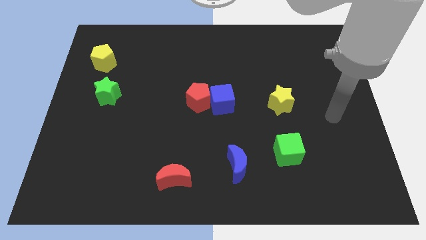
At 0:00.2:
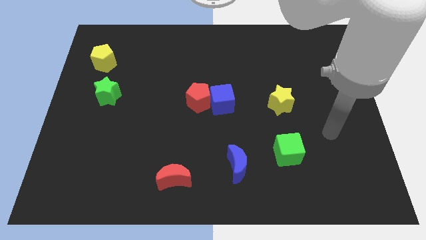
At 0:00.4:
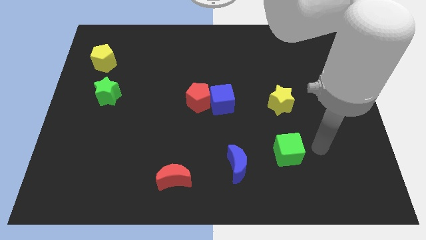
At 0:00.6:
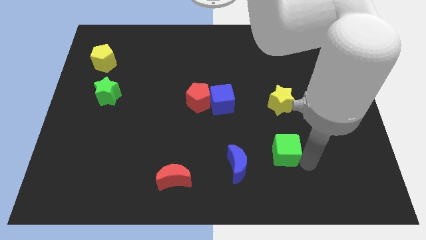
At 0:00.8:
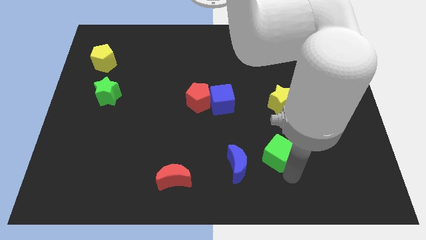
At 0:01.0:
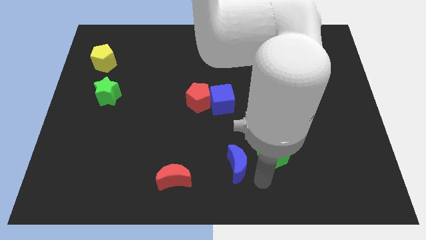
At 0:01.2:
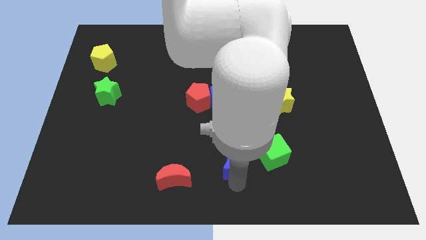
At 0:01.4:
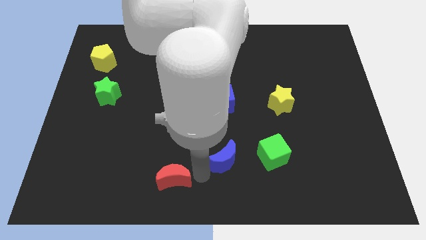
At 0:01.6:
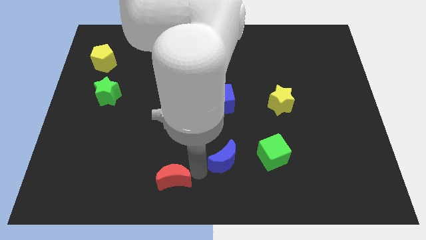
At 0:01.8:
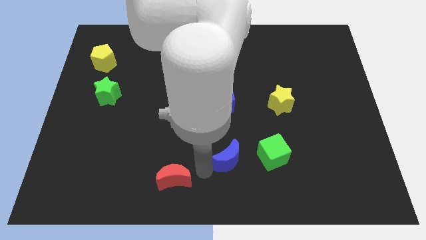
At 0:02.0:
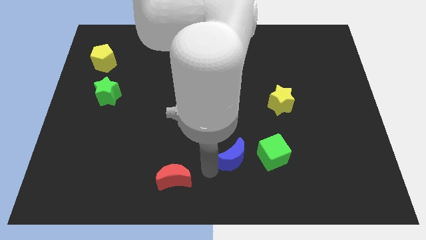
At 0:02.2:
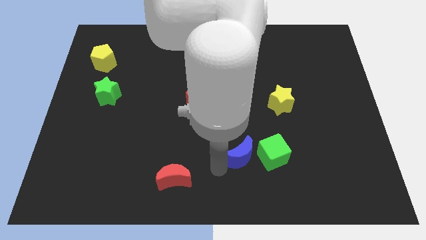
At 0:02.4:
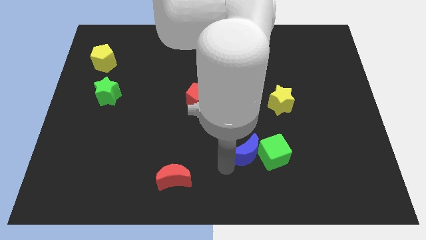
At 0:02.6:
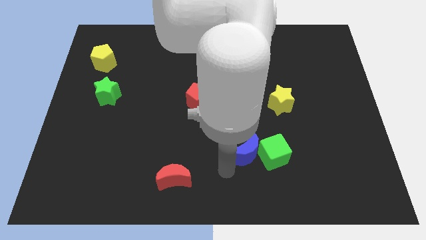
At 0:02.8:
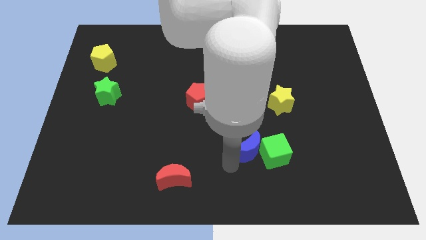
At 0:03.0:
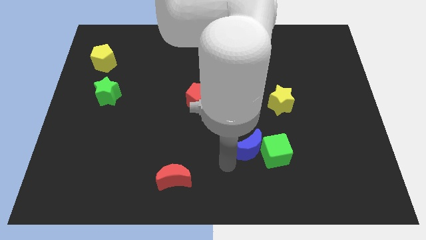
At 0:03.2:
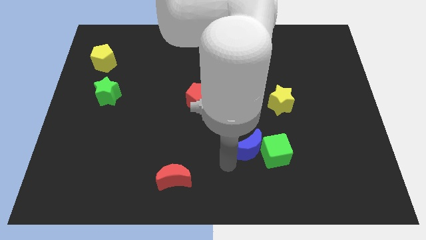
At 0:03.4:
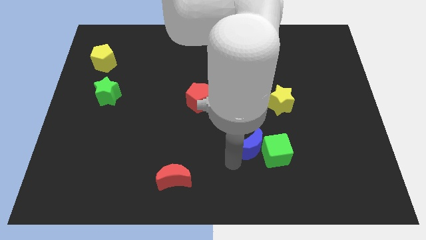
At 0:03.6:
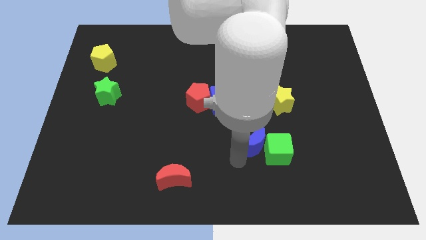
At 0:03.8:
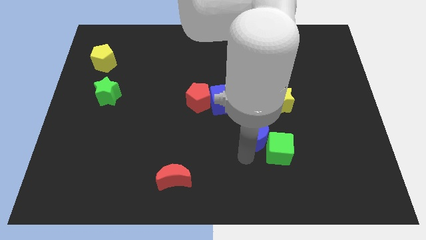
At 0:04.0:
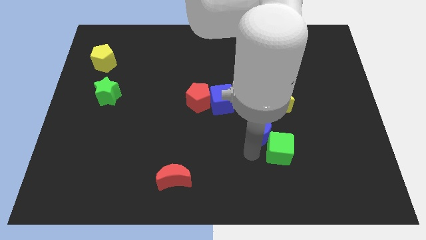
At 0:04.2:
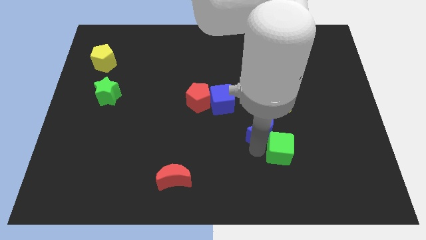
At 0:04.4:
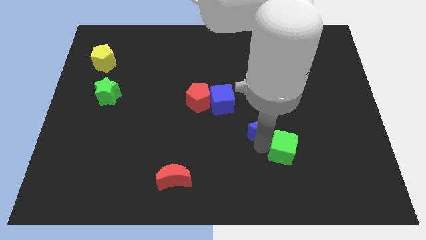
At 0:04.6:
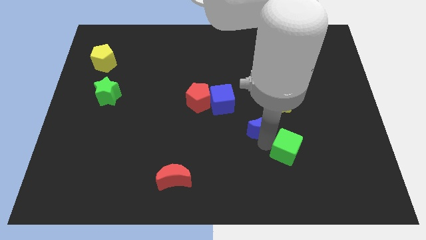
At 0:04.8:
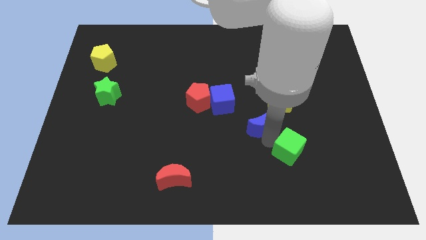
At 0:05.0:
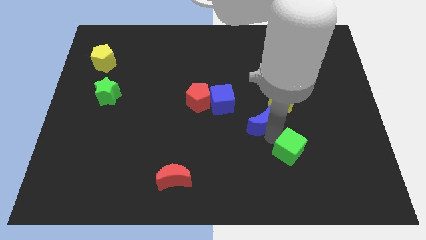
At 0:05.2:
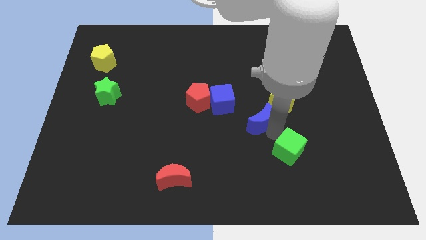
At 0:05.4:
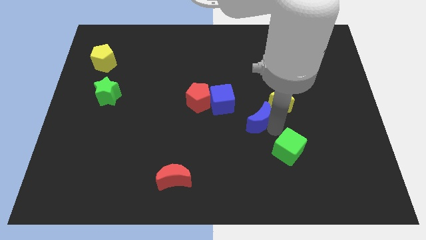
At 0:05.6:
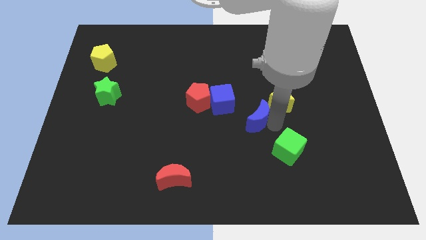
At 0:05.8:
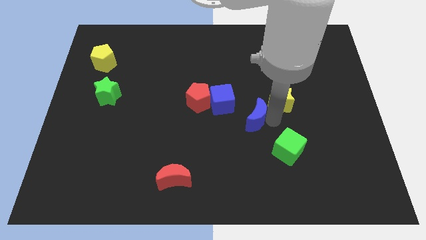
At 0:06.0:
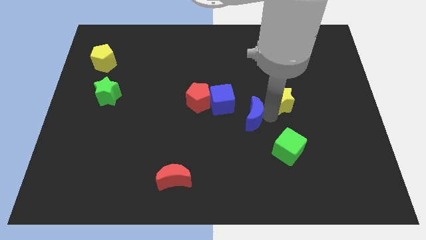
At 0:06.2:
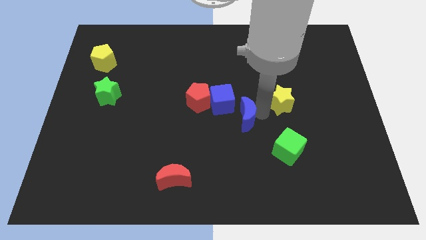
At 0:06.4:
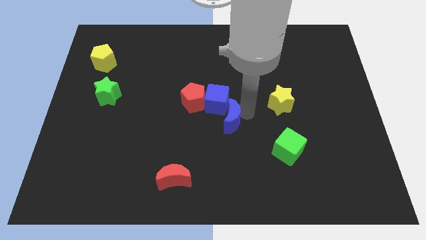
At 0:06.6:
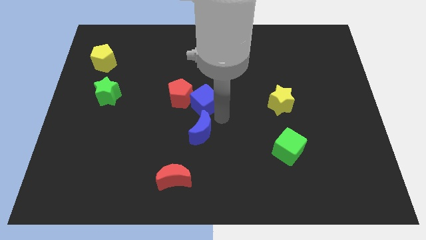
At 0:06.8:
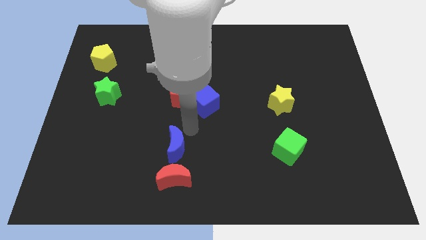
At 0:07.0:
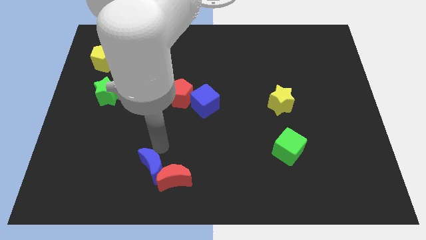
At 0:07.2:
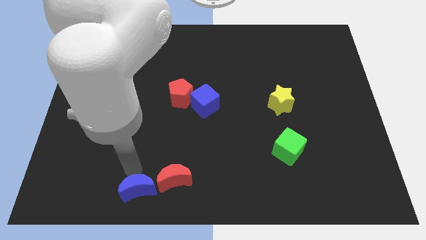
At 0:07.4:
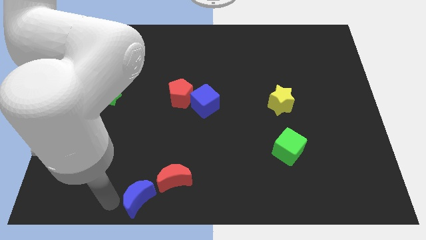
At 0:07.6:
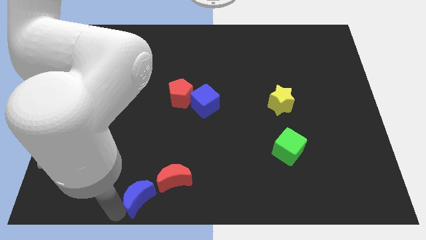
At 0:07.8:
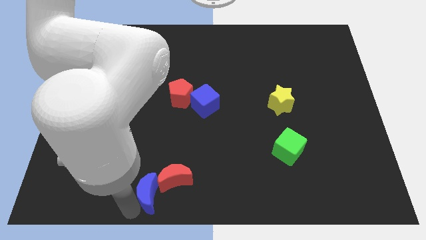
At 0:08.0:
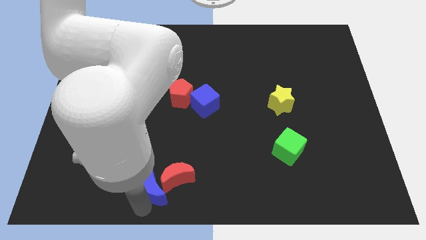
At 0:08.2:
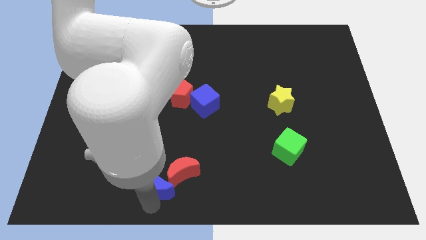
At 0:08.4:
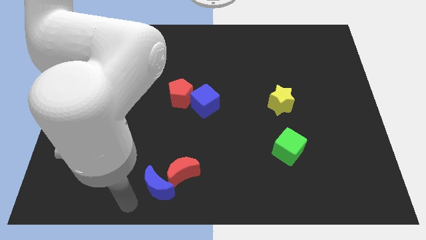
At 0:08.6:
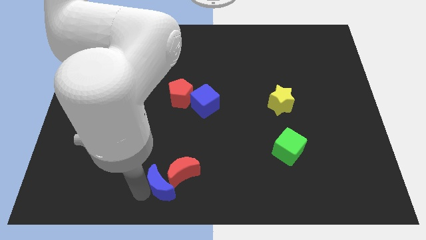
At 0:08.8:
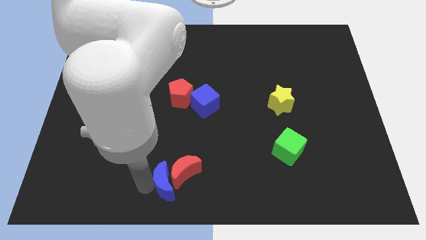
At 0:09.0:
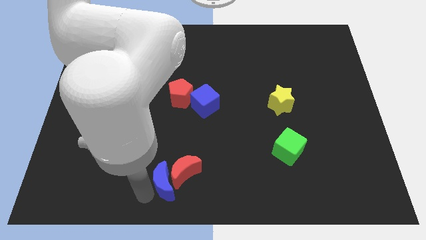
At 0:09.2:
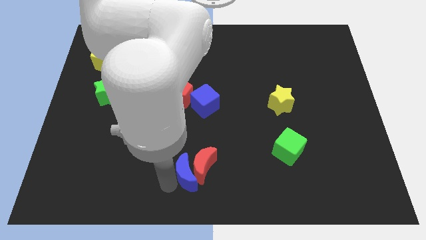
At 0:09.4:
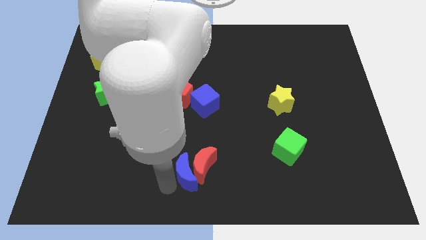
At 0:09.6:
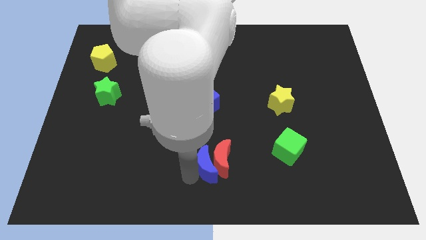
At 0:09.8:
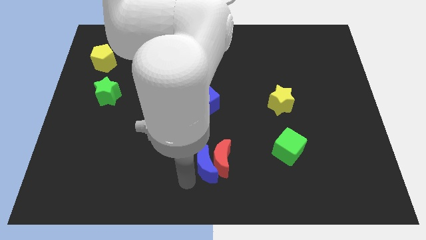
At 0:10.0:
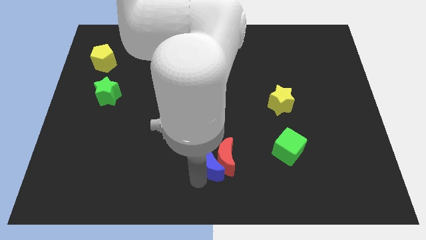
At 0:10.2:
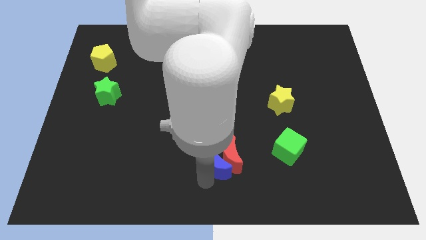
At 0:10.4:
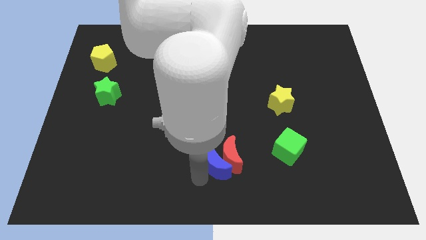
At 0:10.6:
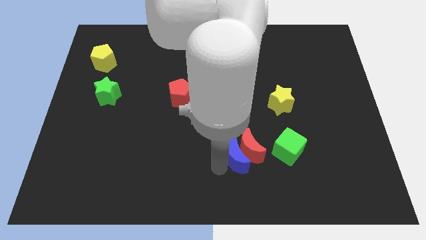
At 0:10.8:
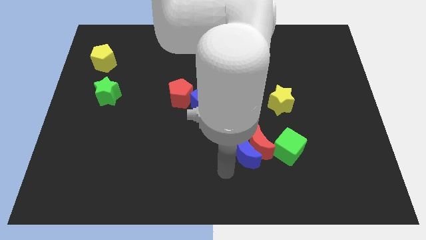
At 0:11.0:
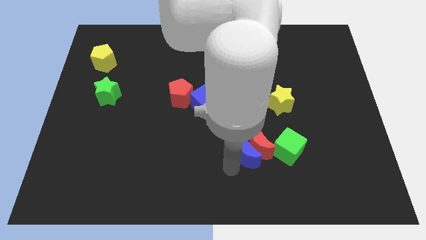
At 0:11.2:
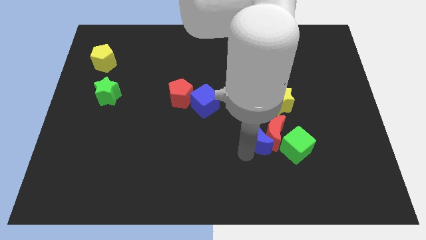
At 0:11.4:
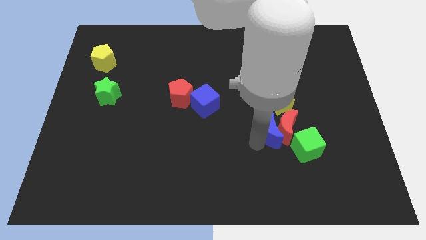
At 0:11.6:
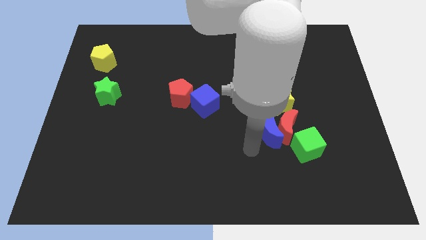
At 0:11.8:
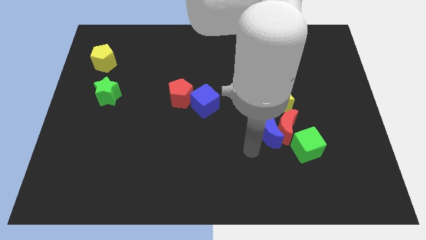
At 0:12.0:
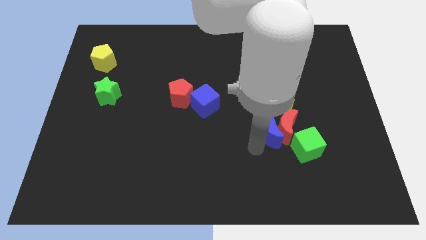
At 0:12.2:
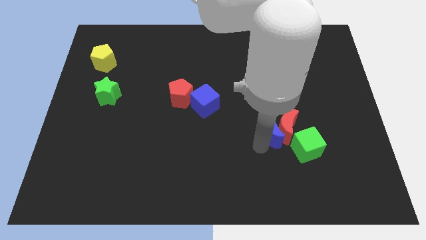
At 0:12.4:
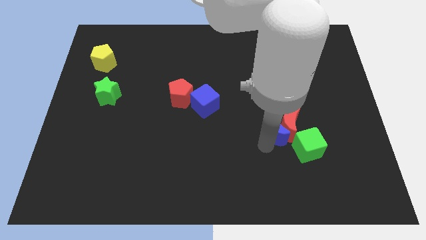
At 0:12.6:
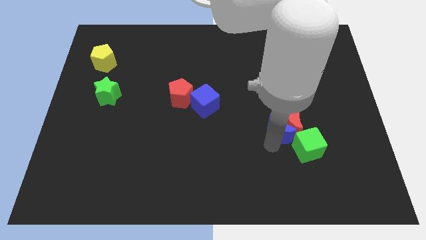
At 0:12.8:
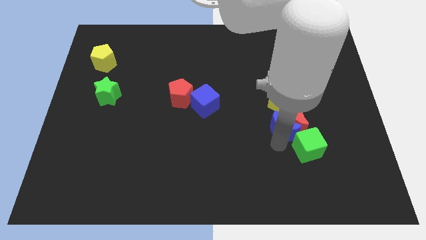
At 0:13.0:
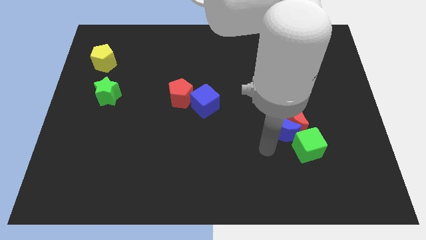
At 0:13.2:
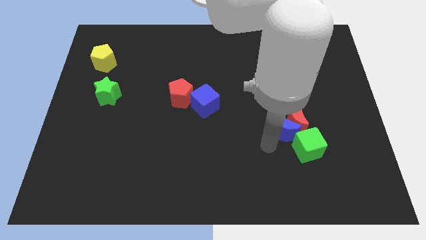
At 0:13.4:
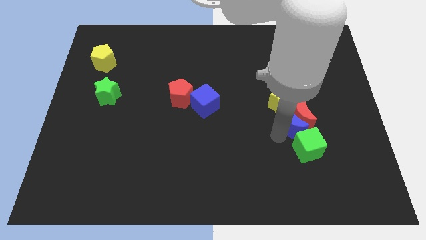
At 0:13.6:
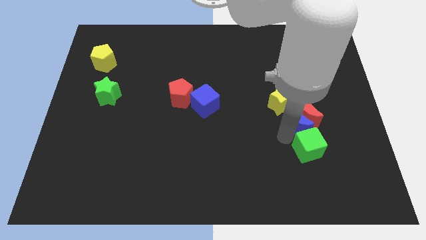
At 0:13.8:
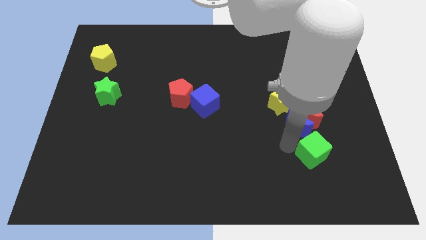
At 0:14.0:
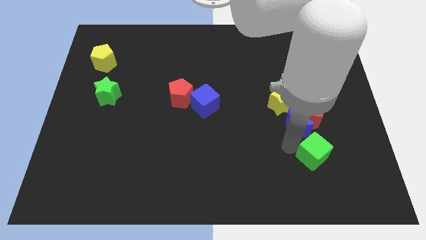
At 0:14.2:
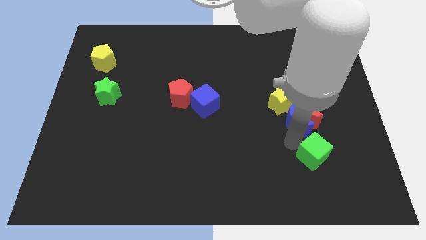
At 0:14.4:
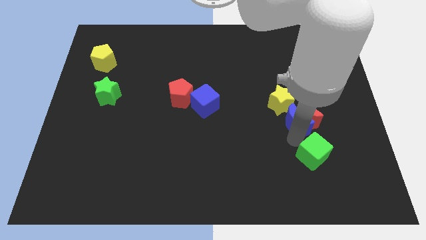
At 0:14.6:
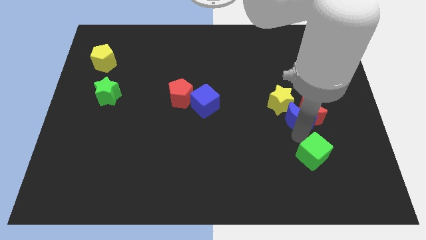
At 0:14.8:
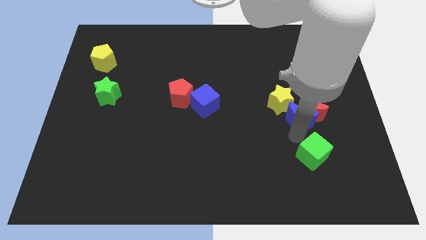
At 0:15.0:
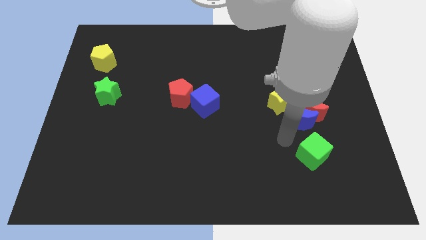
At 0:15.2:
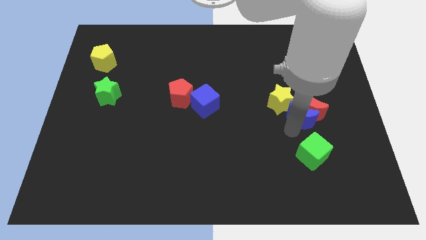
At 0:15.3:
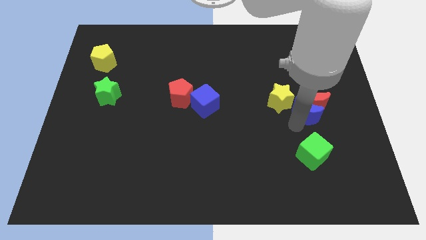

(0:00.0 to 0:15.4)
slide the blue moon diagonally upwards and right

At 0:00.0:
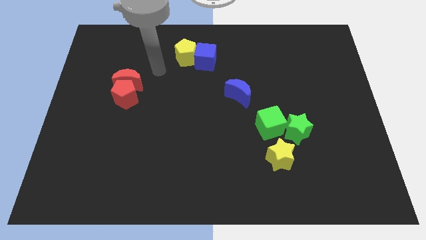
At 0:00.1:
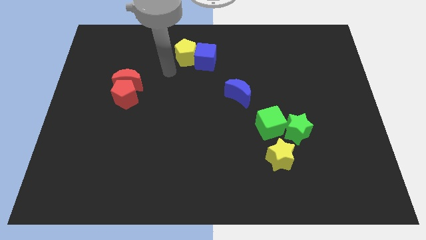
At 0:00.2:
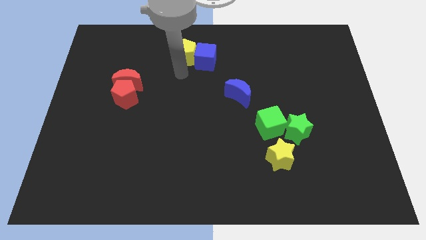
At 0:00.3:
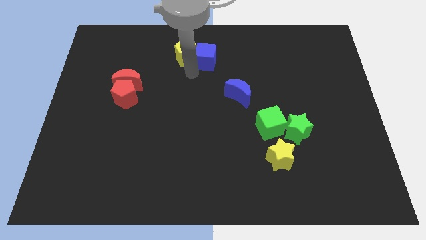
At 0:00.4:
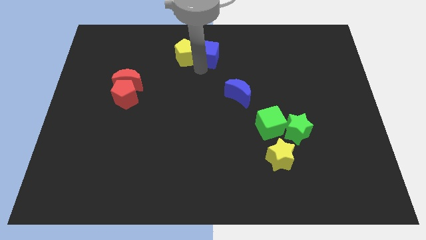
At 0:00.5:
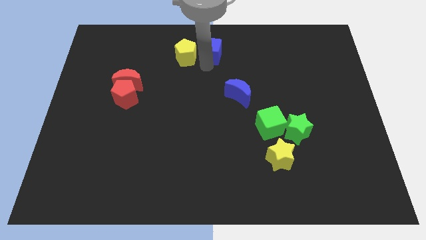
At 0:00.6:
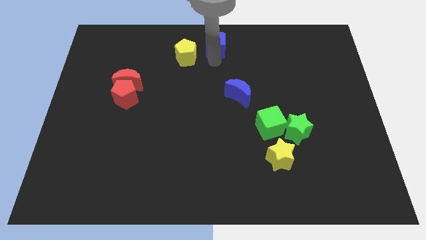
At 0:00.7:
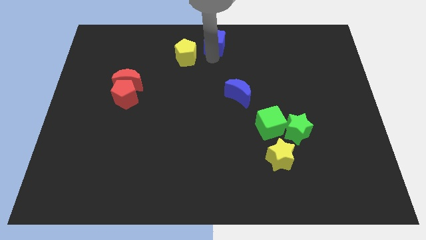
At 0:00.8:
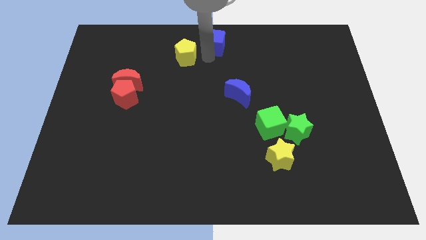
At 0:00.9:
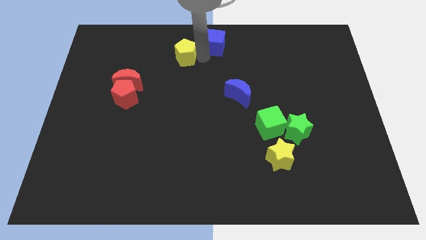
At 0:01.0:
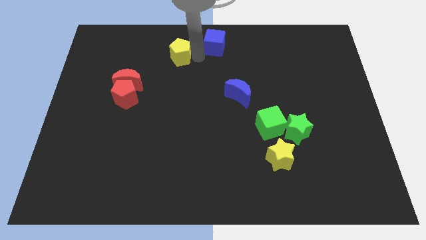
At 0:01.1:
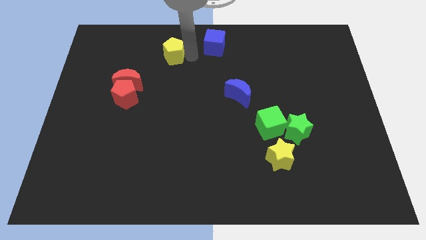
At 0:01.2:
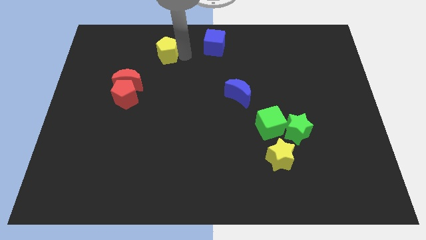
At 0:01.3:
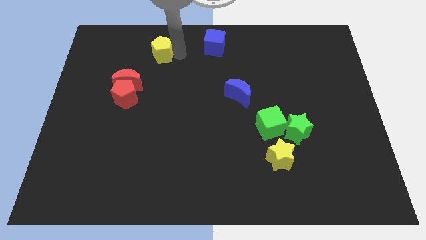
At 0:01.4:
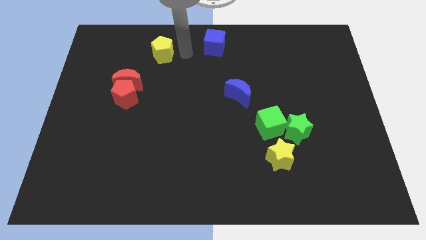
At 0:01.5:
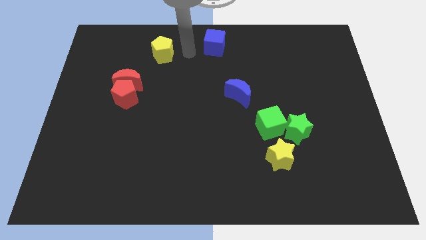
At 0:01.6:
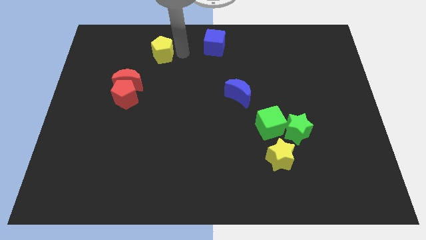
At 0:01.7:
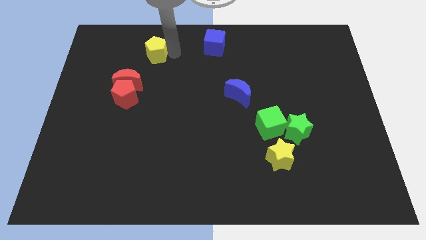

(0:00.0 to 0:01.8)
slightly slide the yellow pentagon left
